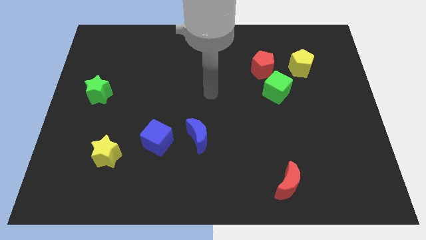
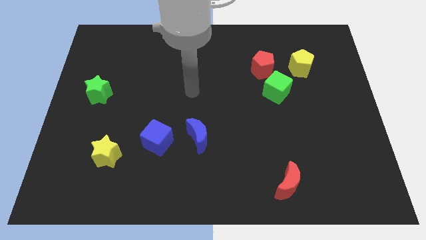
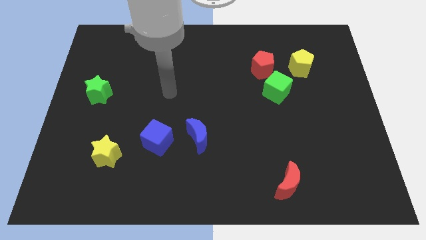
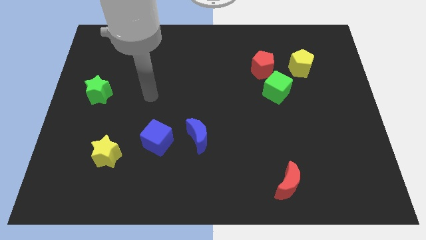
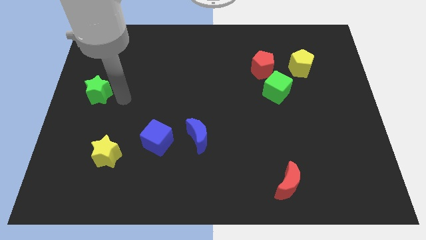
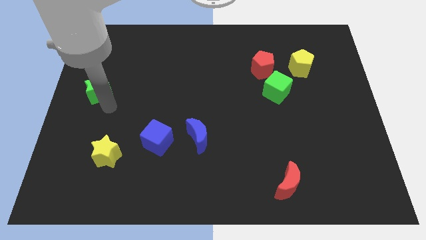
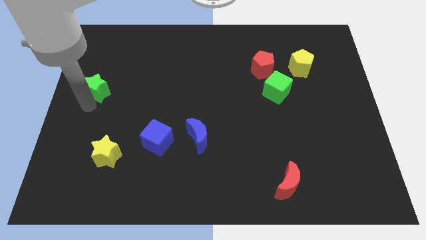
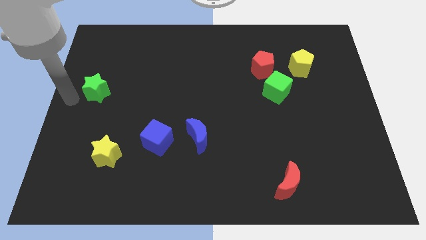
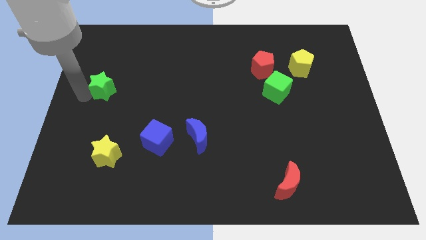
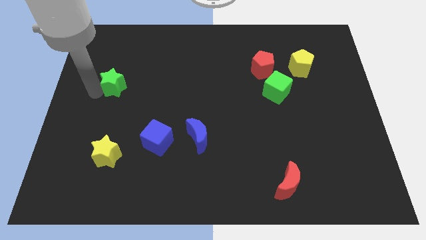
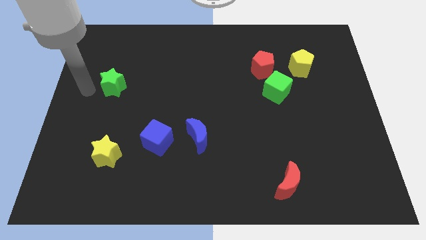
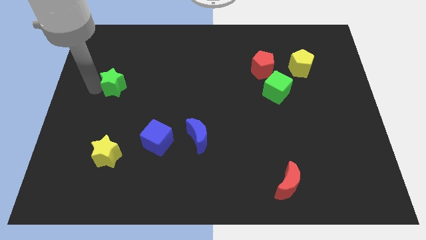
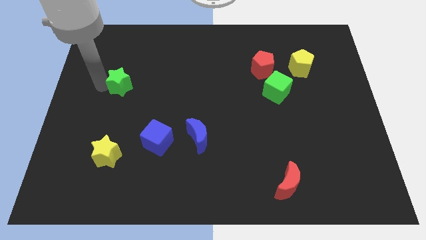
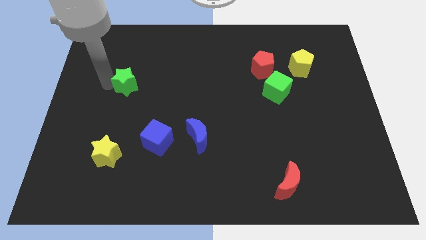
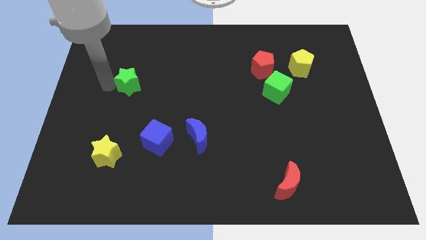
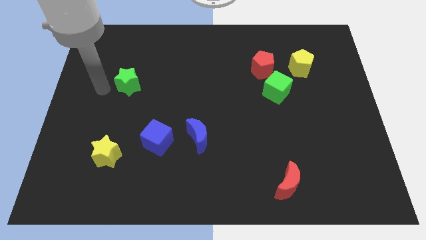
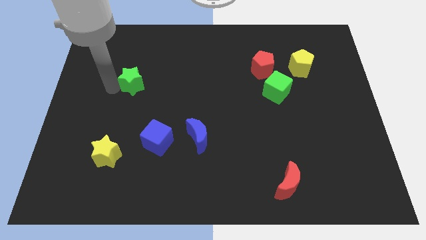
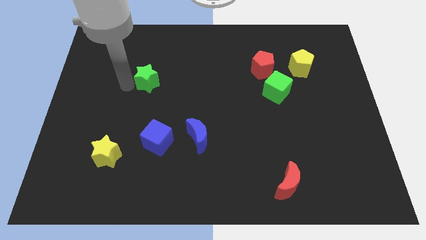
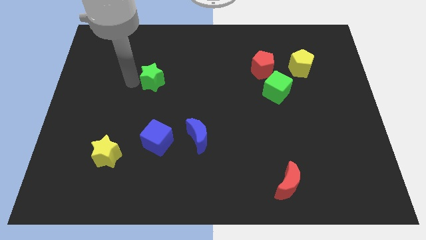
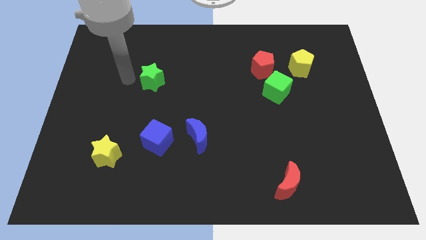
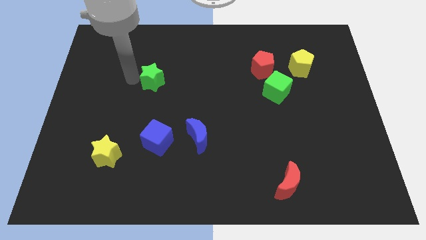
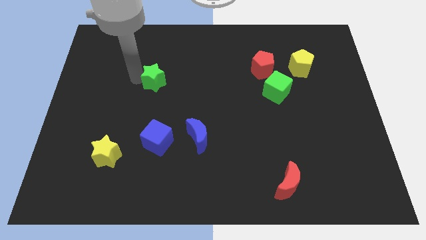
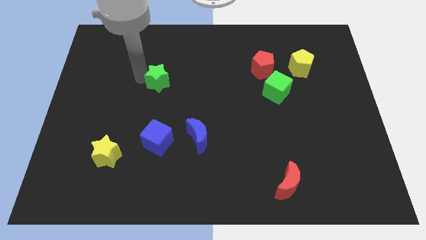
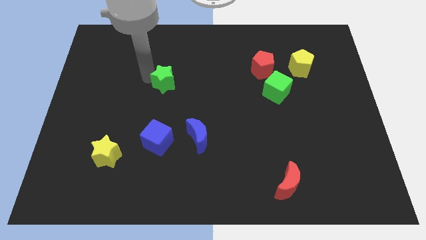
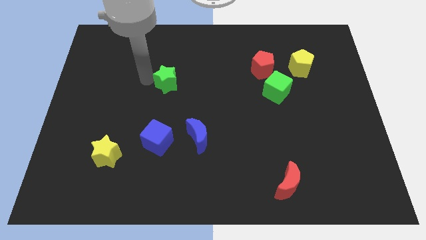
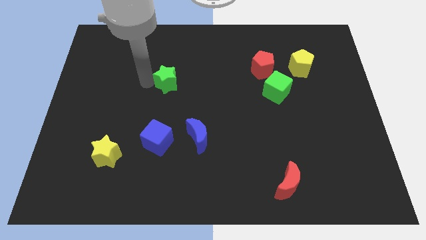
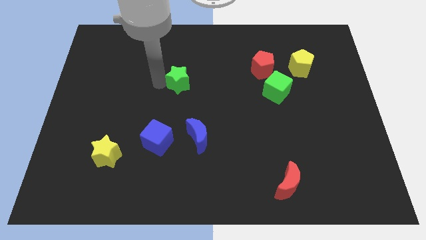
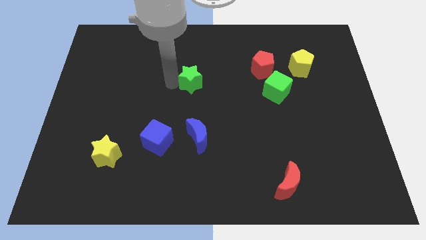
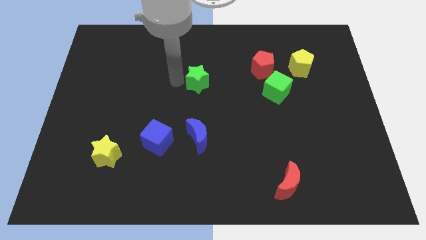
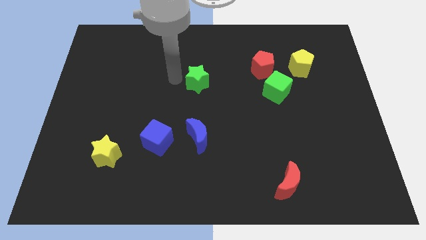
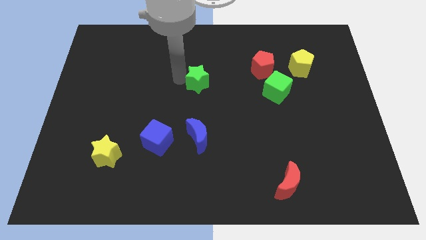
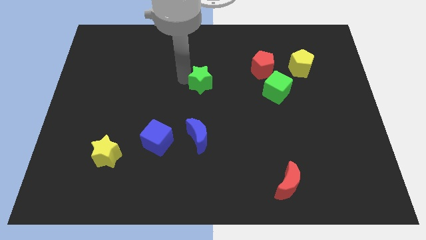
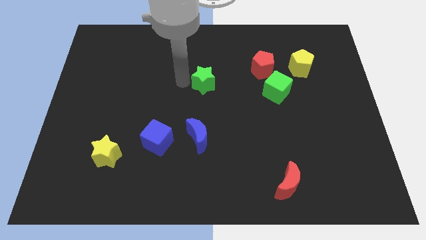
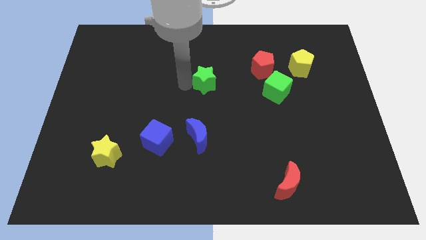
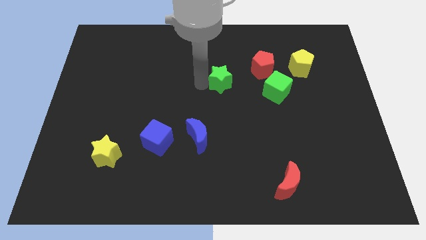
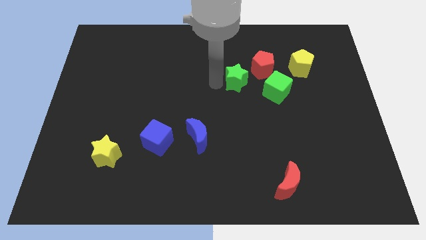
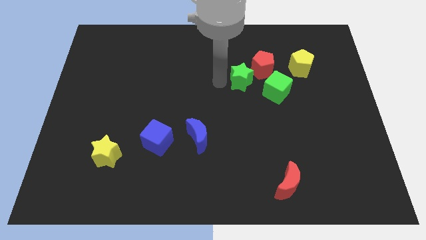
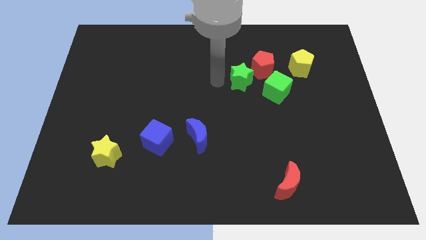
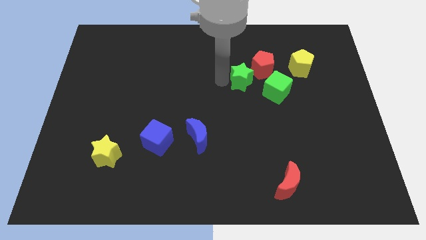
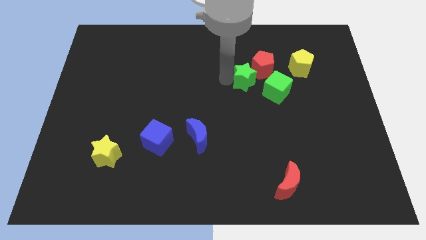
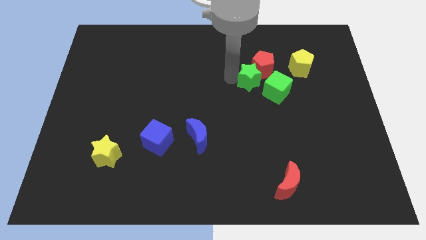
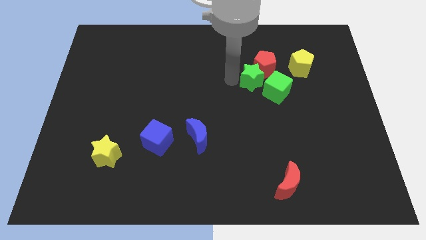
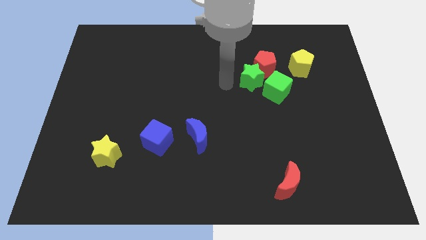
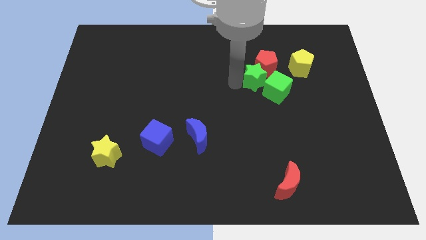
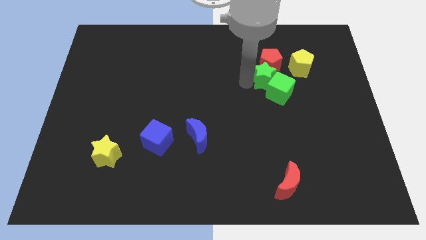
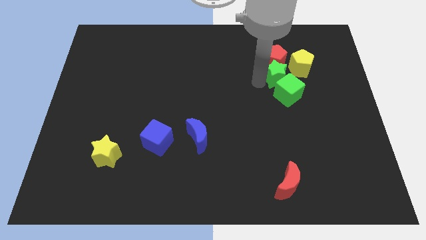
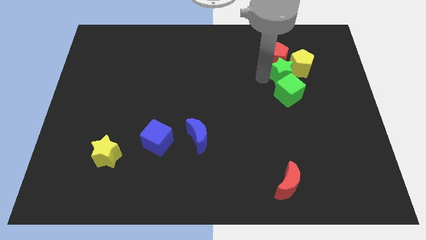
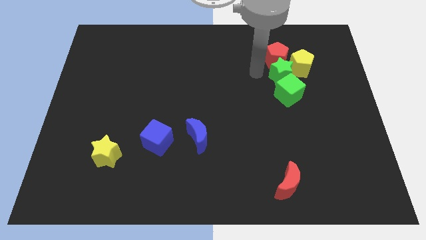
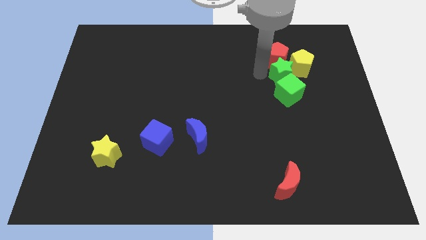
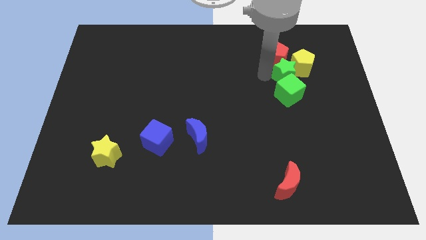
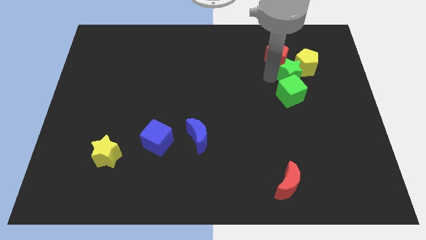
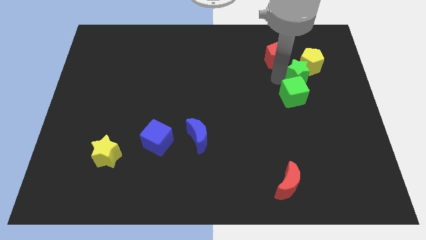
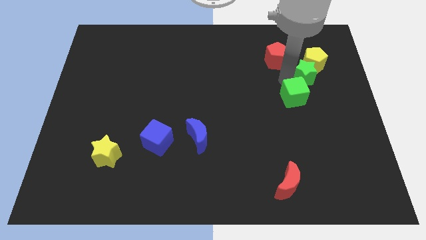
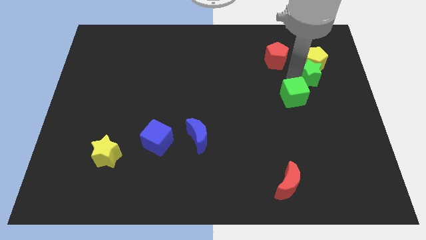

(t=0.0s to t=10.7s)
push the green star to the bottom right side of the yellow pentagon
